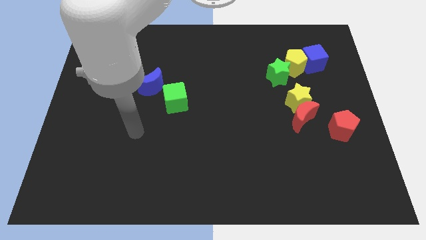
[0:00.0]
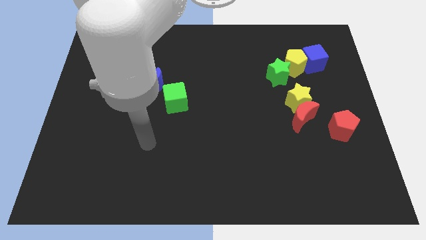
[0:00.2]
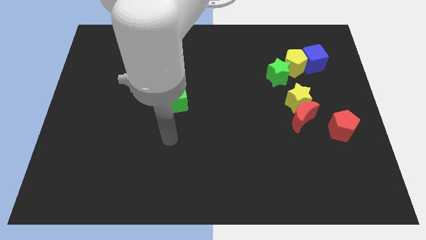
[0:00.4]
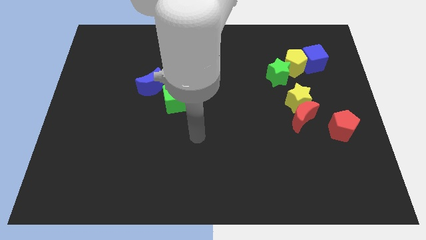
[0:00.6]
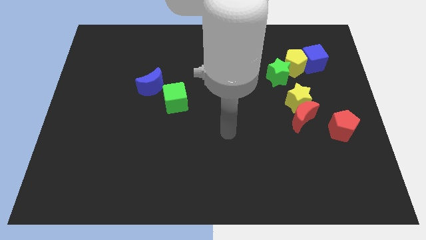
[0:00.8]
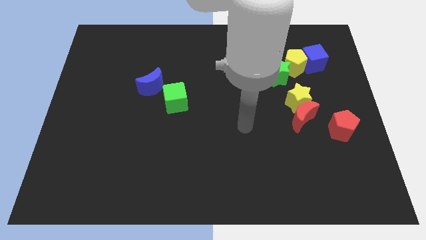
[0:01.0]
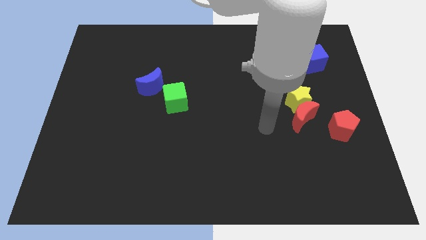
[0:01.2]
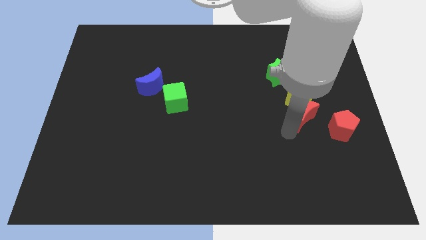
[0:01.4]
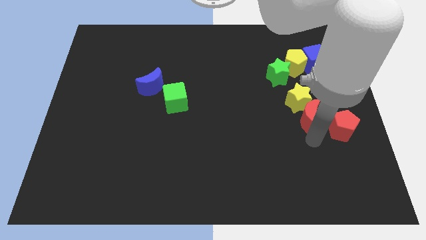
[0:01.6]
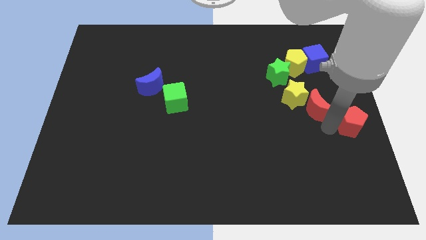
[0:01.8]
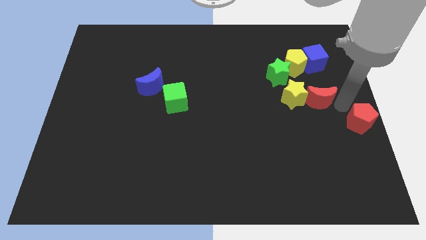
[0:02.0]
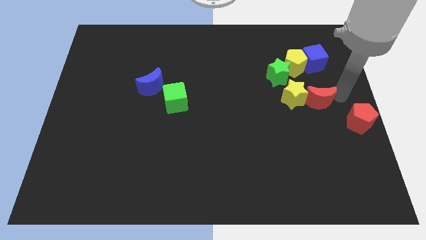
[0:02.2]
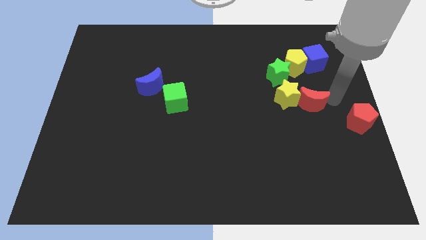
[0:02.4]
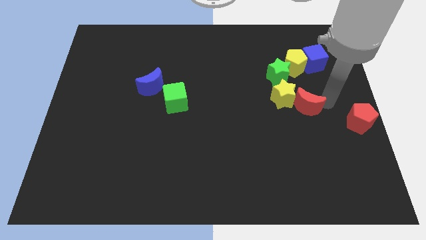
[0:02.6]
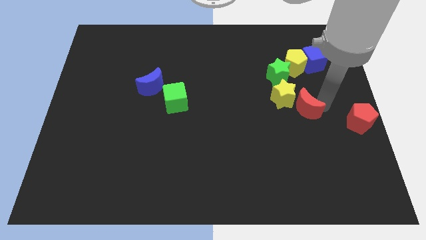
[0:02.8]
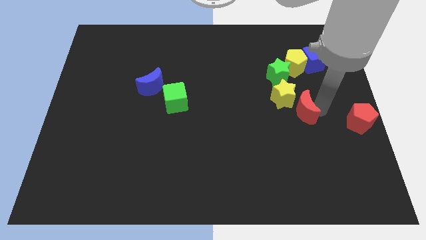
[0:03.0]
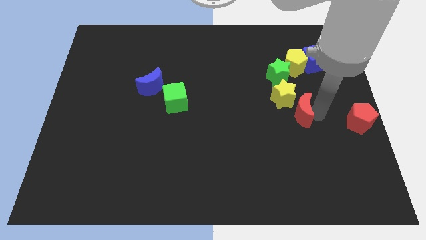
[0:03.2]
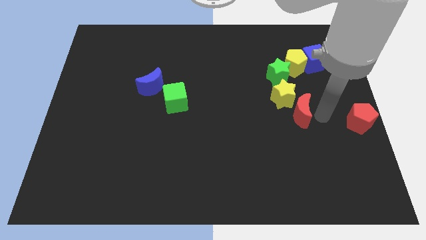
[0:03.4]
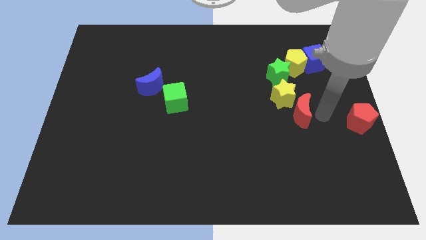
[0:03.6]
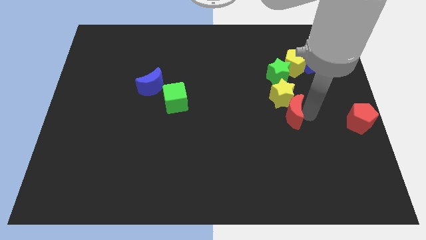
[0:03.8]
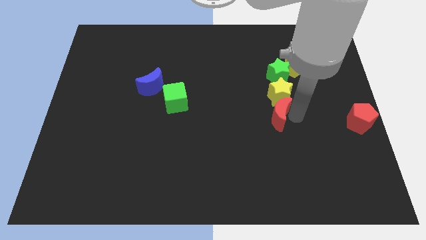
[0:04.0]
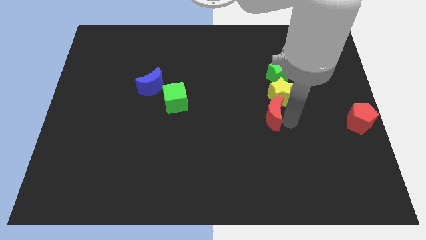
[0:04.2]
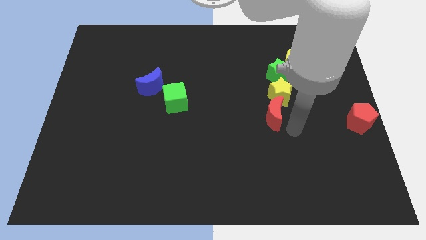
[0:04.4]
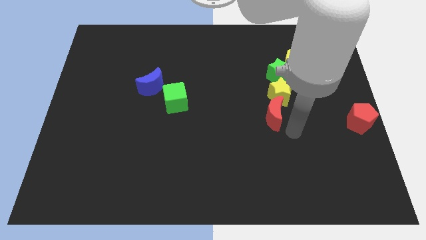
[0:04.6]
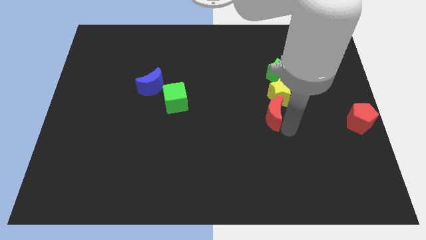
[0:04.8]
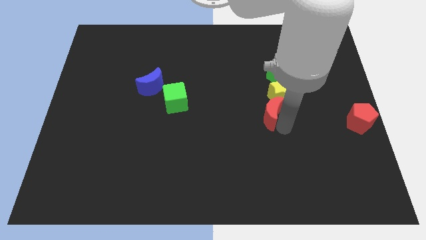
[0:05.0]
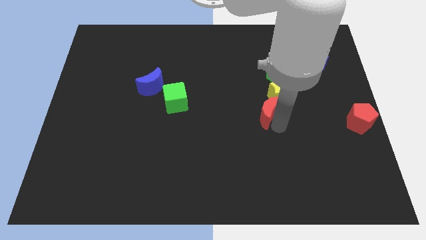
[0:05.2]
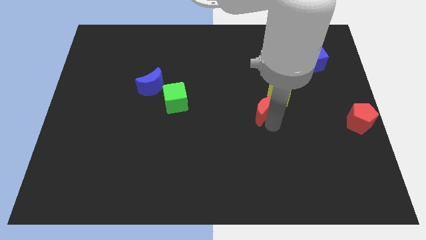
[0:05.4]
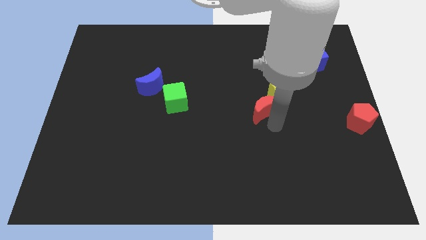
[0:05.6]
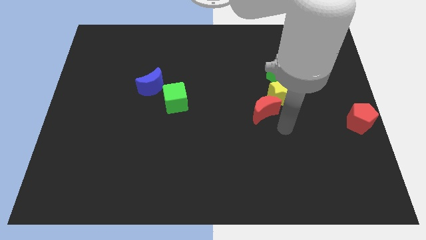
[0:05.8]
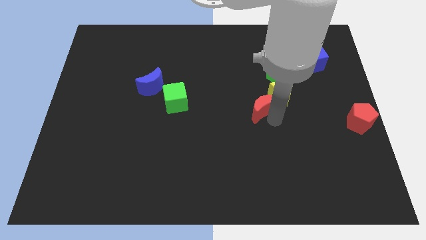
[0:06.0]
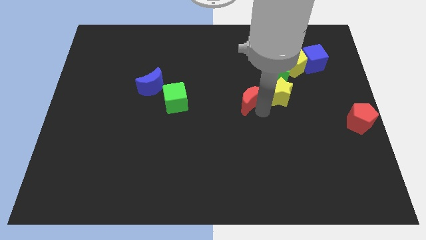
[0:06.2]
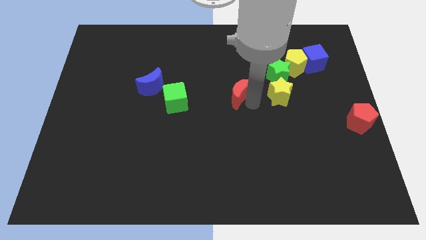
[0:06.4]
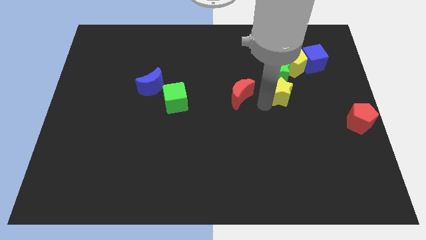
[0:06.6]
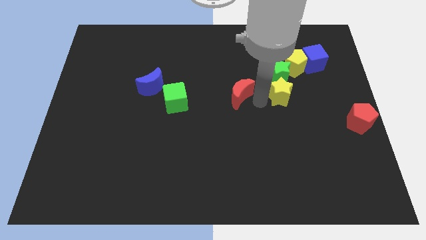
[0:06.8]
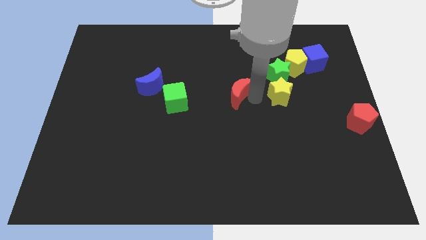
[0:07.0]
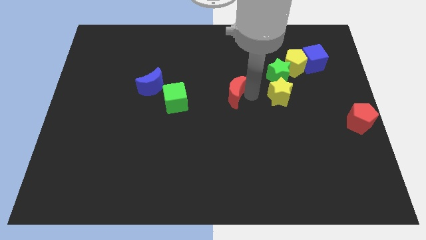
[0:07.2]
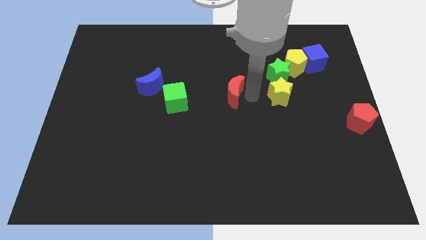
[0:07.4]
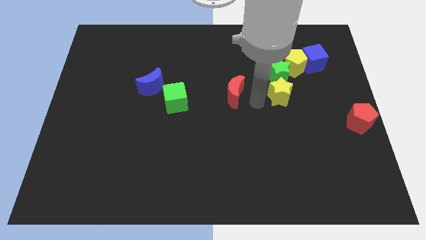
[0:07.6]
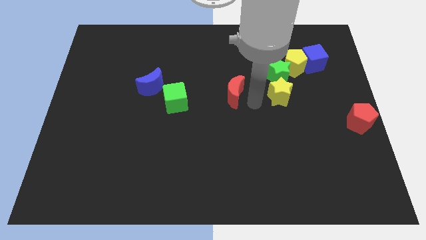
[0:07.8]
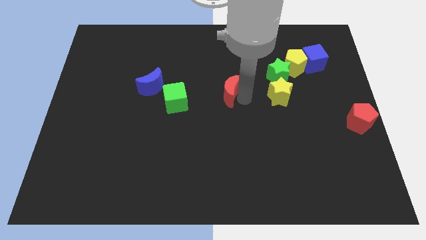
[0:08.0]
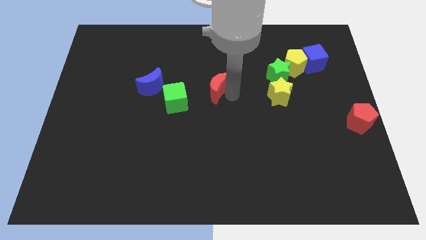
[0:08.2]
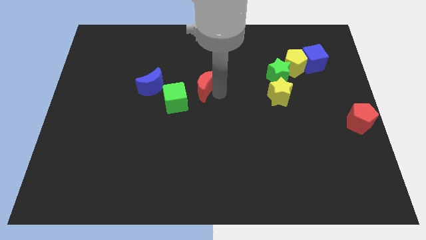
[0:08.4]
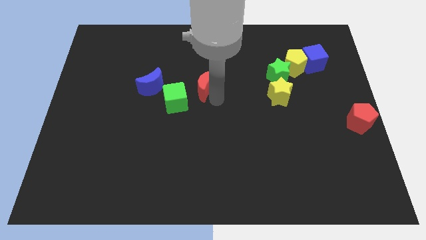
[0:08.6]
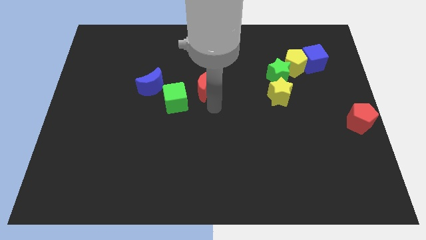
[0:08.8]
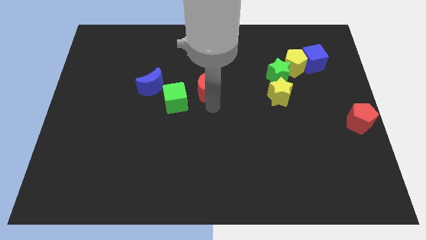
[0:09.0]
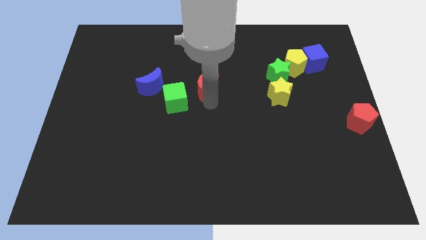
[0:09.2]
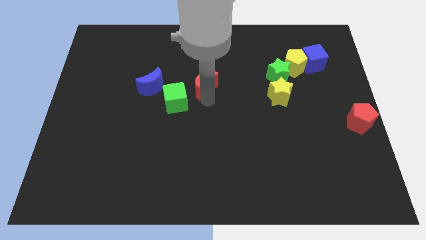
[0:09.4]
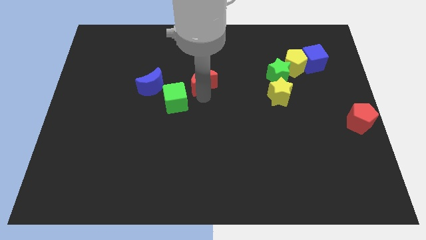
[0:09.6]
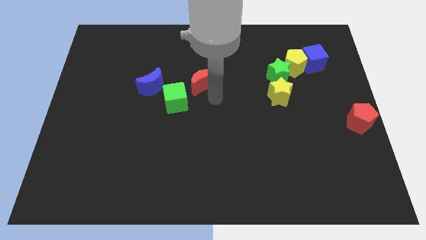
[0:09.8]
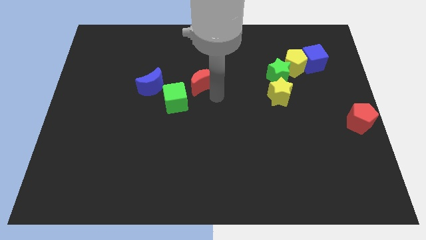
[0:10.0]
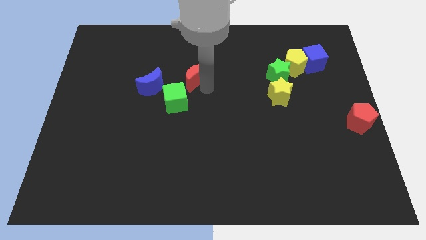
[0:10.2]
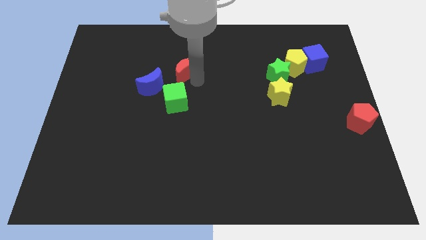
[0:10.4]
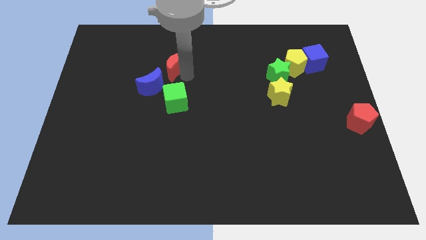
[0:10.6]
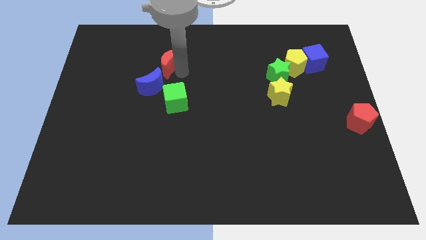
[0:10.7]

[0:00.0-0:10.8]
push the red moon to the top side of the blue moon

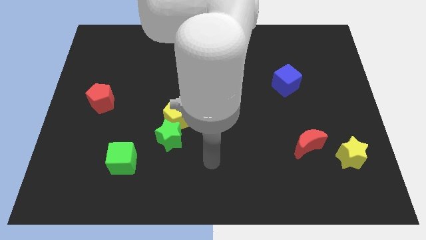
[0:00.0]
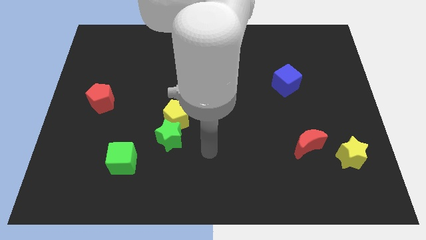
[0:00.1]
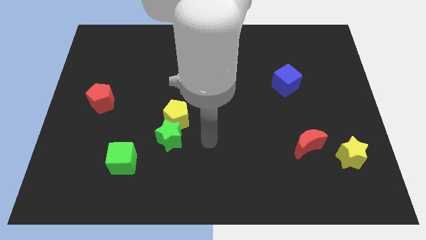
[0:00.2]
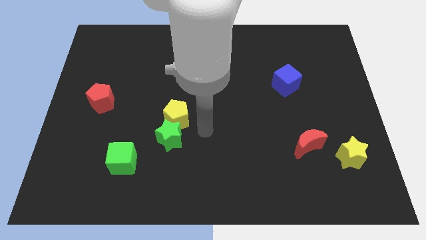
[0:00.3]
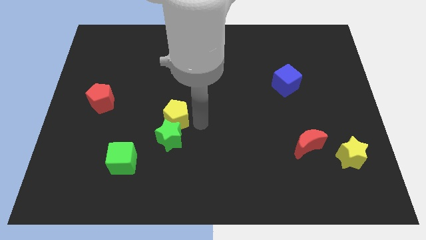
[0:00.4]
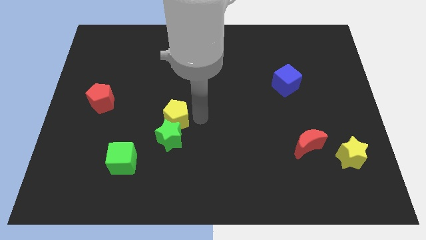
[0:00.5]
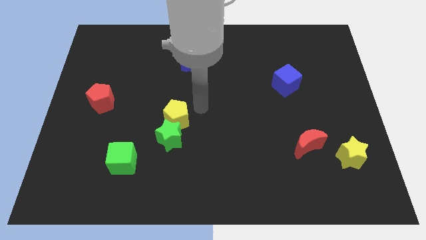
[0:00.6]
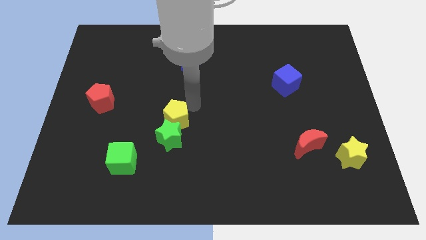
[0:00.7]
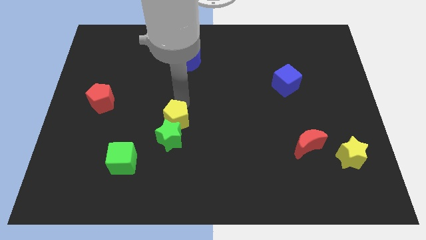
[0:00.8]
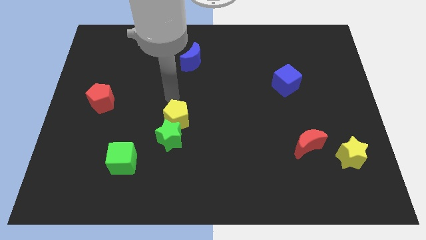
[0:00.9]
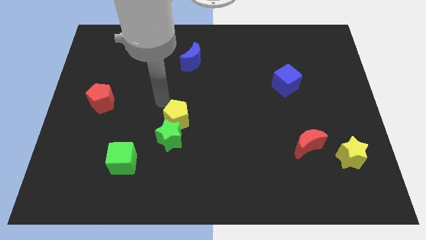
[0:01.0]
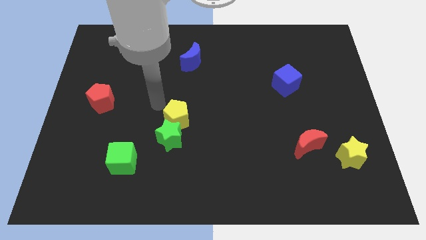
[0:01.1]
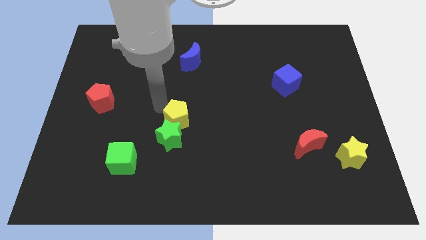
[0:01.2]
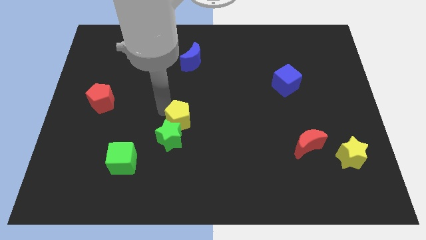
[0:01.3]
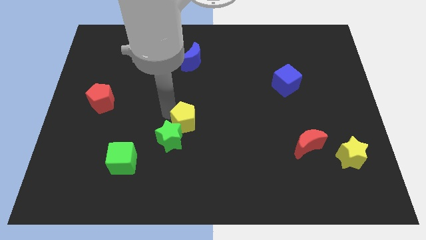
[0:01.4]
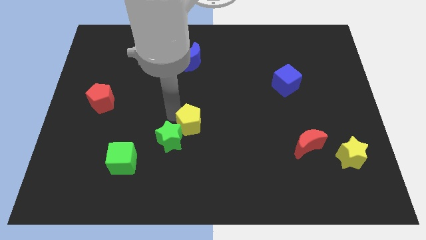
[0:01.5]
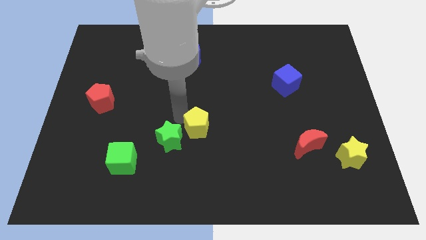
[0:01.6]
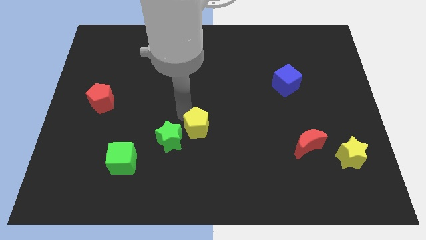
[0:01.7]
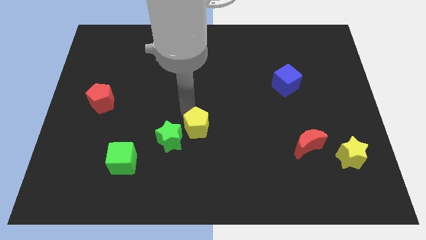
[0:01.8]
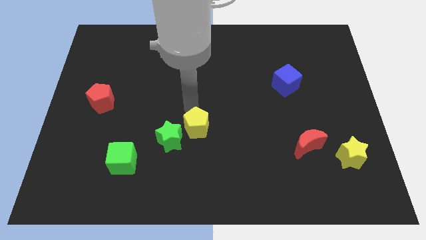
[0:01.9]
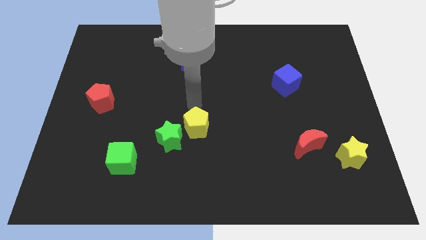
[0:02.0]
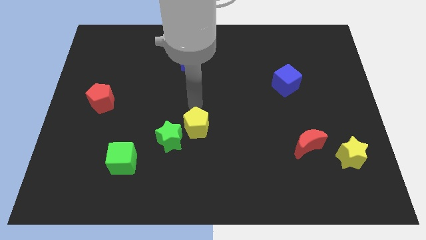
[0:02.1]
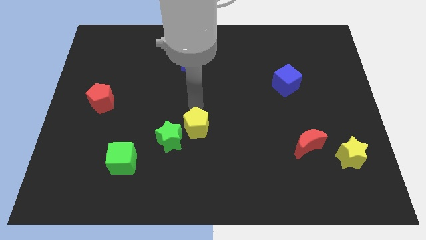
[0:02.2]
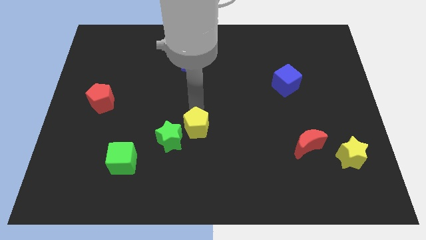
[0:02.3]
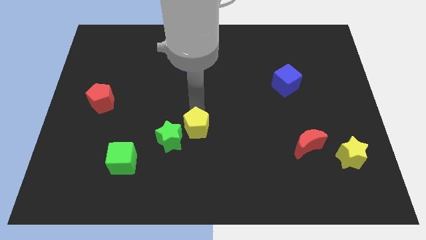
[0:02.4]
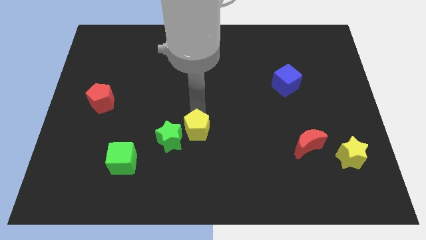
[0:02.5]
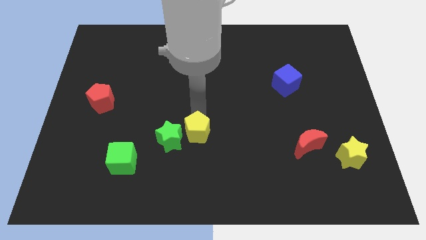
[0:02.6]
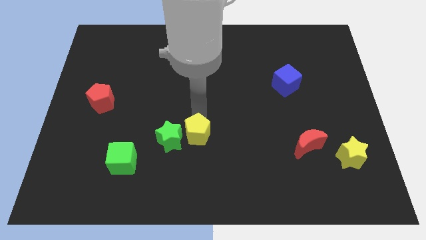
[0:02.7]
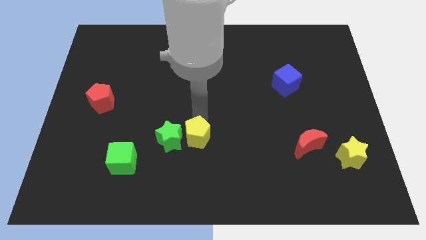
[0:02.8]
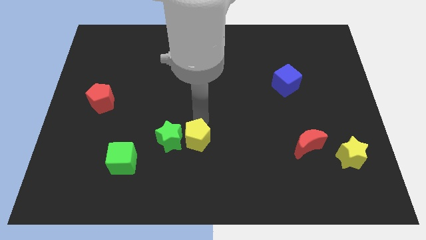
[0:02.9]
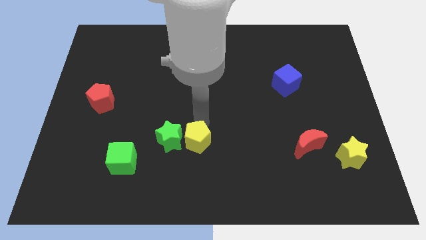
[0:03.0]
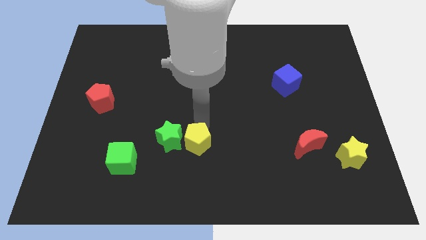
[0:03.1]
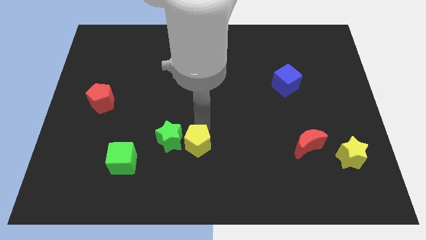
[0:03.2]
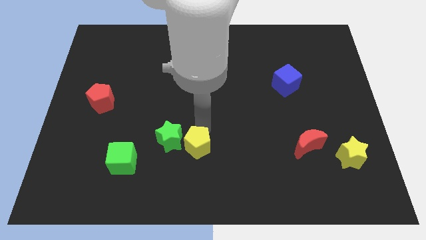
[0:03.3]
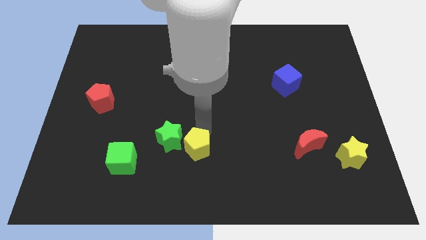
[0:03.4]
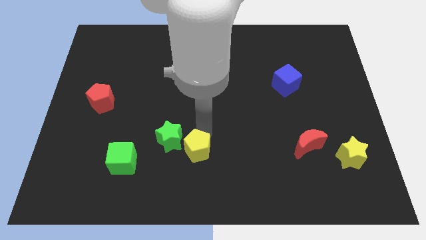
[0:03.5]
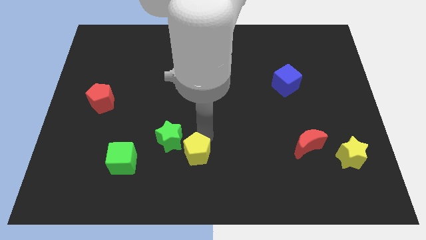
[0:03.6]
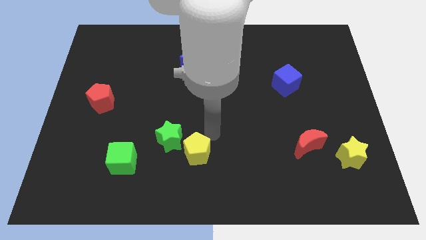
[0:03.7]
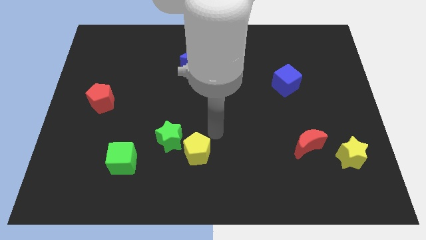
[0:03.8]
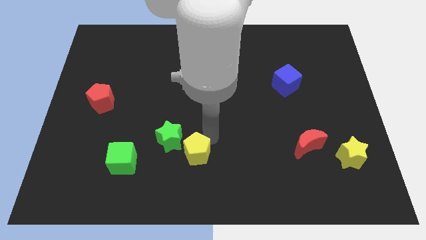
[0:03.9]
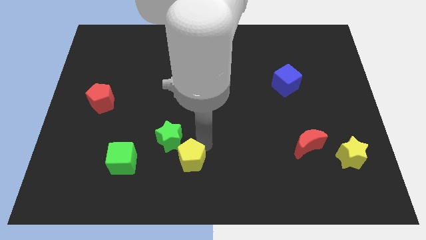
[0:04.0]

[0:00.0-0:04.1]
slide the yellow pentagon to the bottom side of the green star
